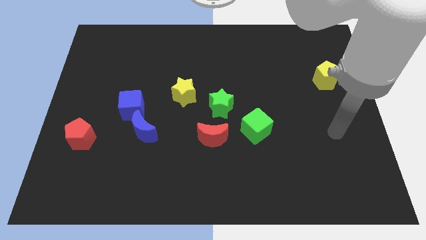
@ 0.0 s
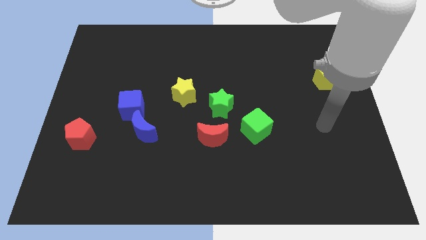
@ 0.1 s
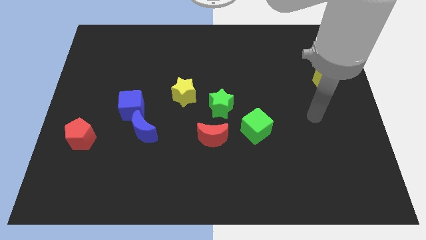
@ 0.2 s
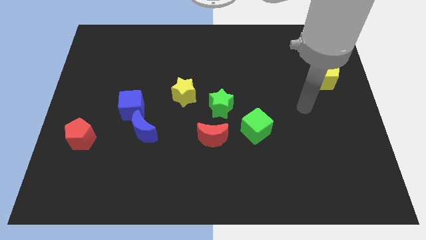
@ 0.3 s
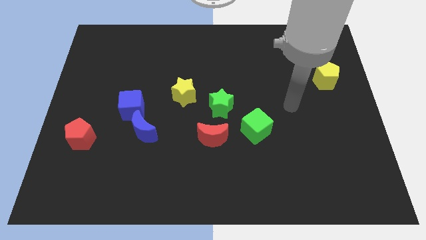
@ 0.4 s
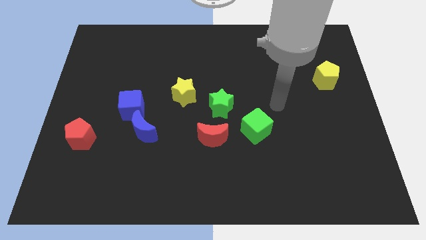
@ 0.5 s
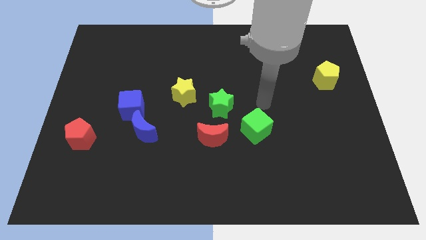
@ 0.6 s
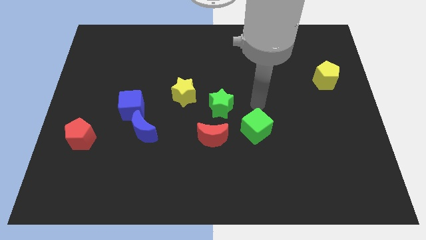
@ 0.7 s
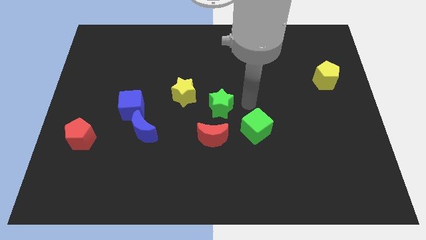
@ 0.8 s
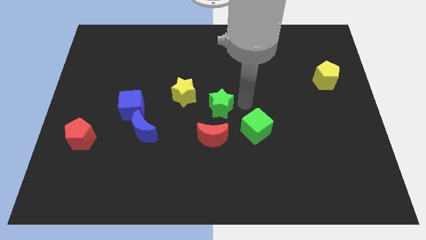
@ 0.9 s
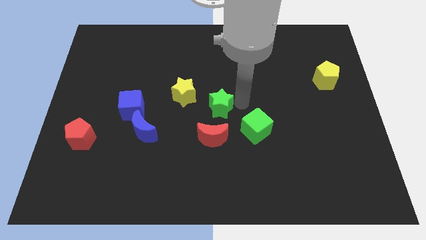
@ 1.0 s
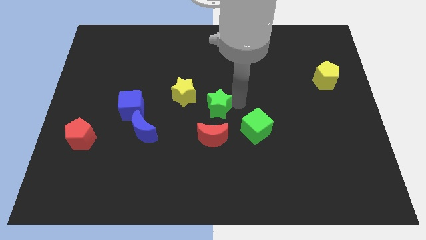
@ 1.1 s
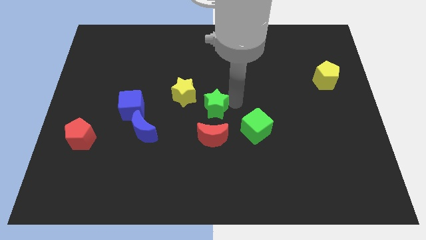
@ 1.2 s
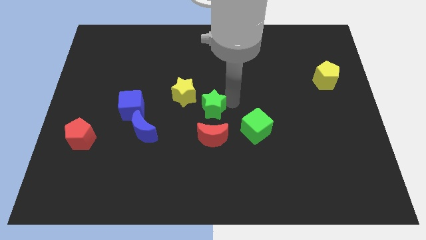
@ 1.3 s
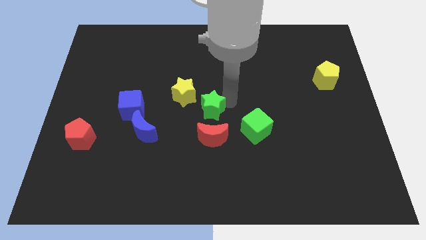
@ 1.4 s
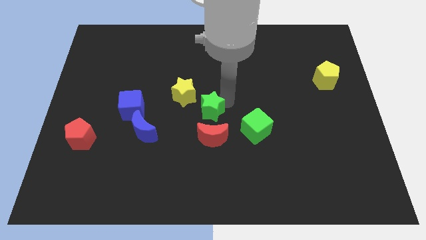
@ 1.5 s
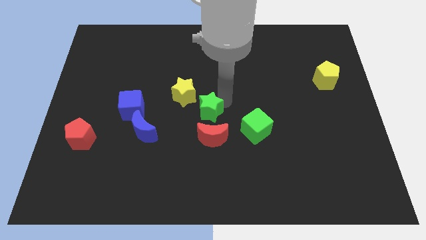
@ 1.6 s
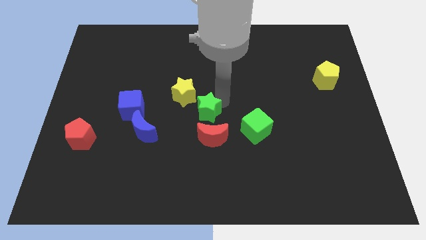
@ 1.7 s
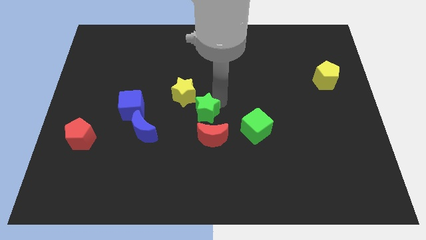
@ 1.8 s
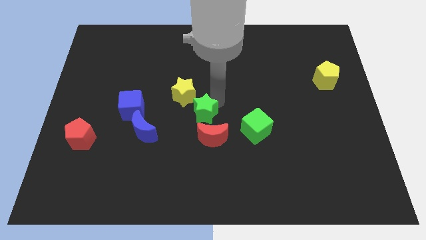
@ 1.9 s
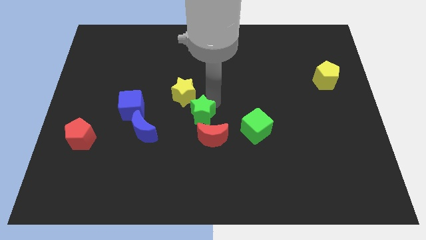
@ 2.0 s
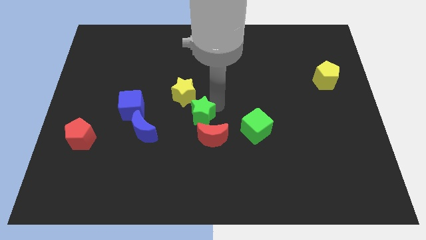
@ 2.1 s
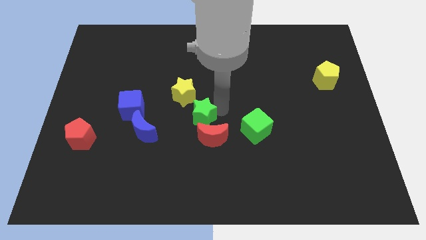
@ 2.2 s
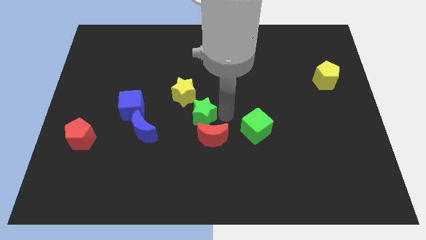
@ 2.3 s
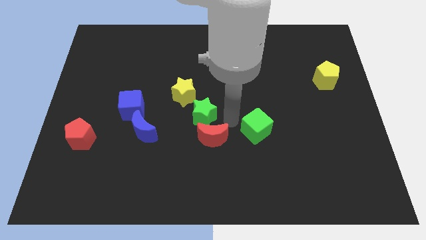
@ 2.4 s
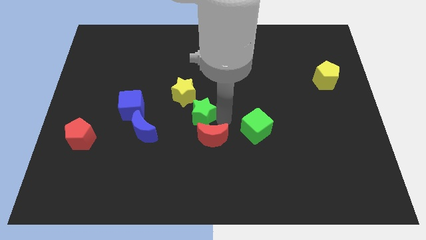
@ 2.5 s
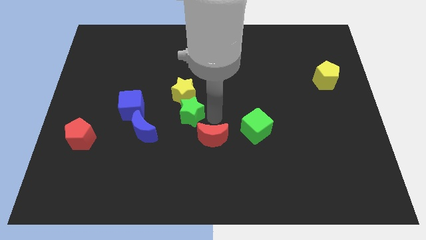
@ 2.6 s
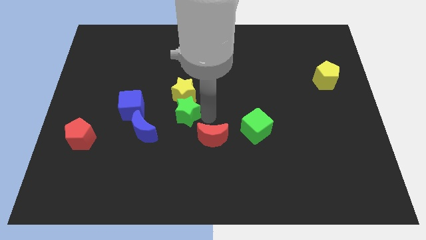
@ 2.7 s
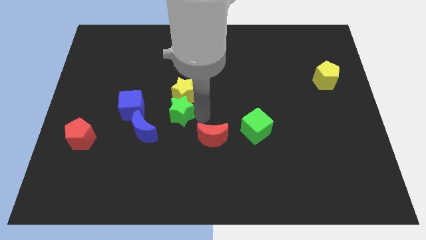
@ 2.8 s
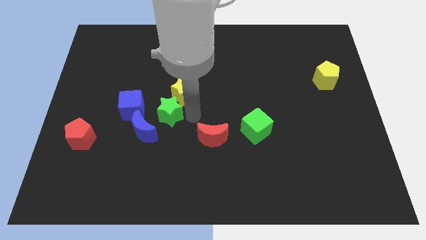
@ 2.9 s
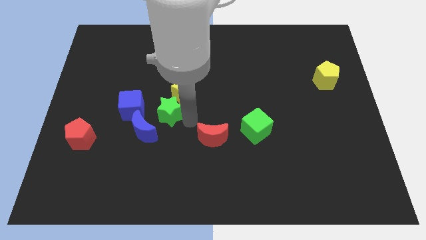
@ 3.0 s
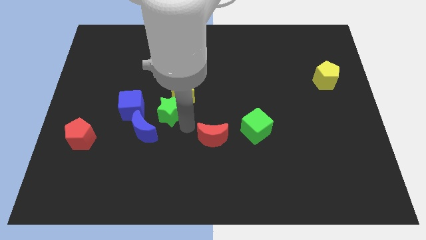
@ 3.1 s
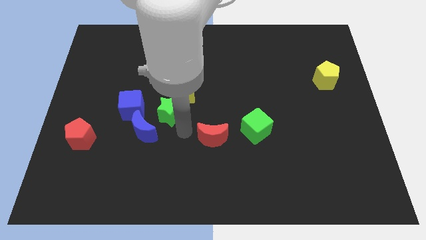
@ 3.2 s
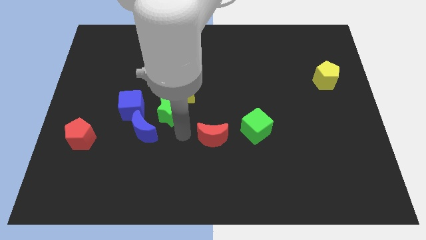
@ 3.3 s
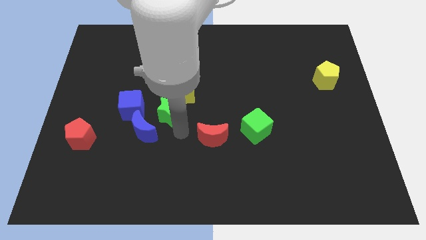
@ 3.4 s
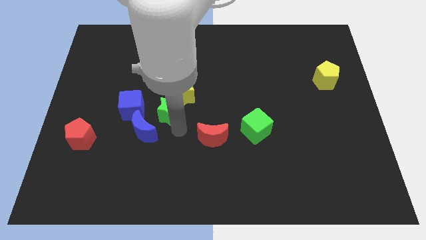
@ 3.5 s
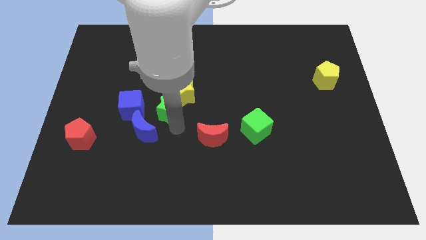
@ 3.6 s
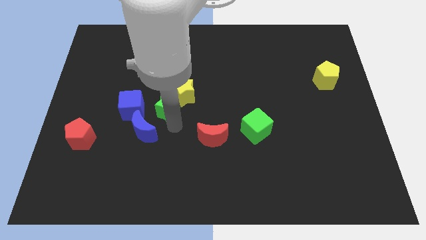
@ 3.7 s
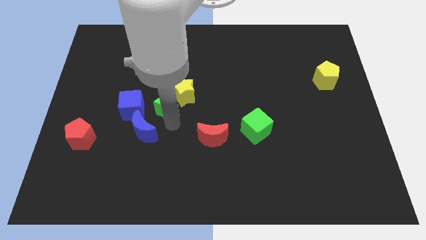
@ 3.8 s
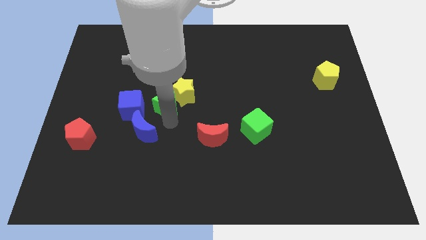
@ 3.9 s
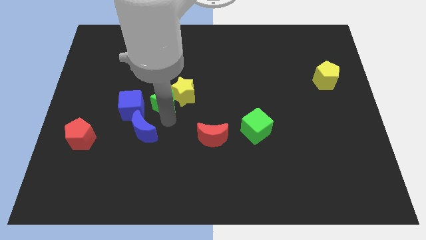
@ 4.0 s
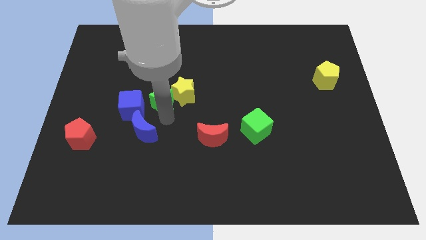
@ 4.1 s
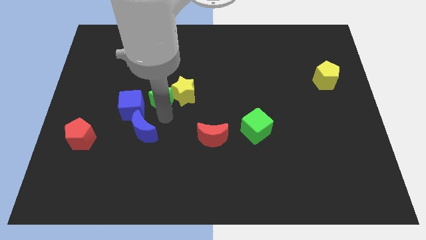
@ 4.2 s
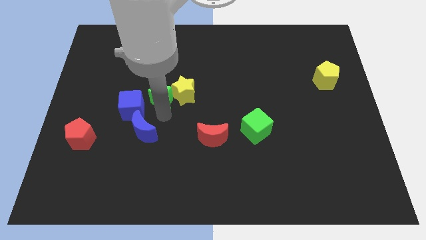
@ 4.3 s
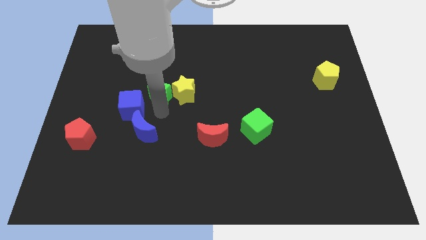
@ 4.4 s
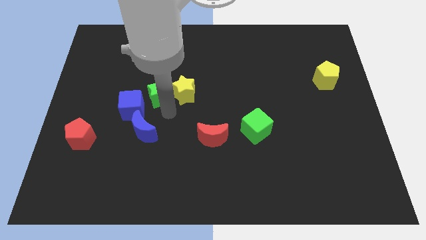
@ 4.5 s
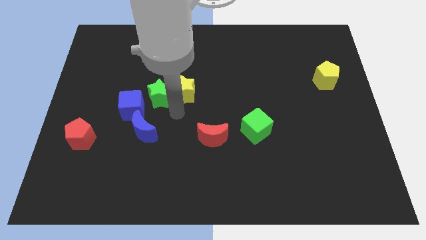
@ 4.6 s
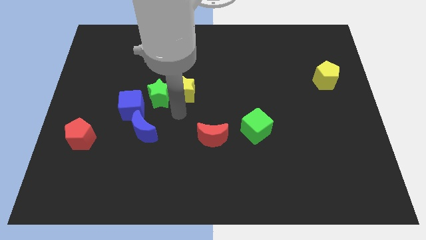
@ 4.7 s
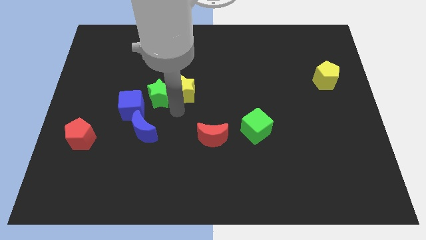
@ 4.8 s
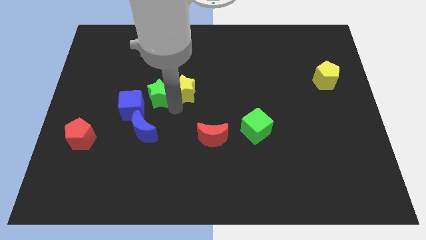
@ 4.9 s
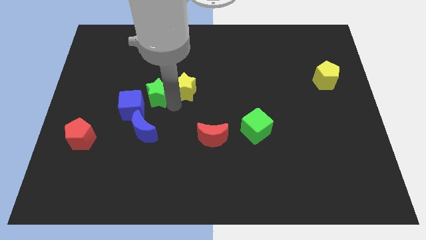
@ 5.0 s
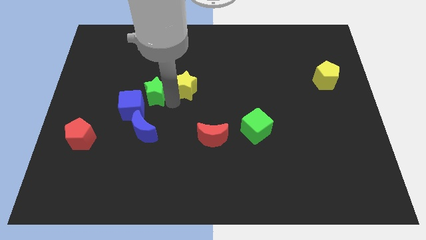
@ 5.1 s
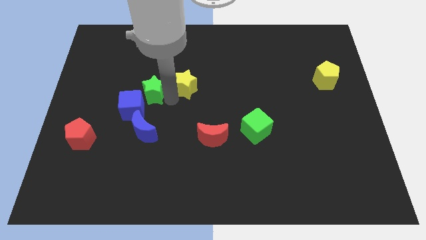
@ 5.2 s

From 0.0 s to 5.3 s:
push the green star to the top of the blue cube

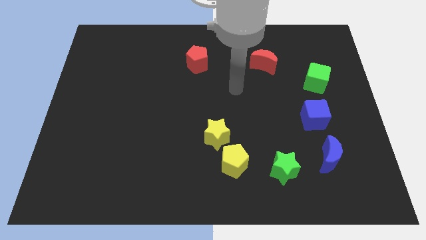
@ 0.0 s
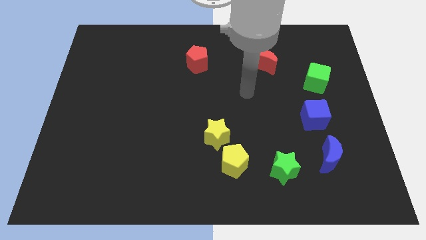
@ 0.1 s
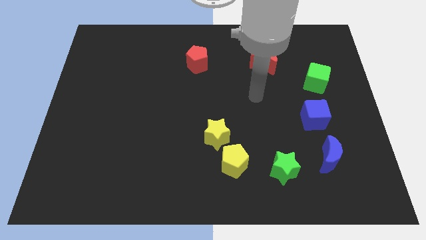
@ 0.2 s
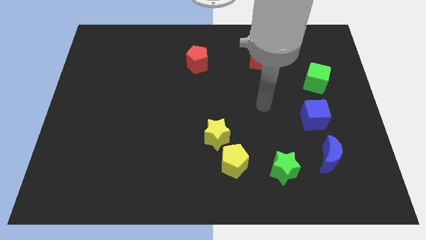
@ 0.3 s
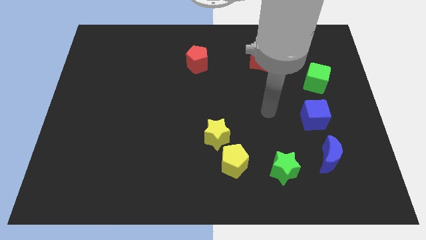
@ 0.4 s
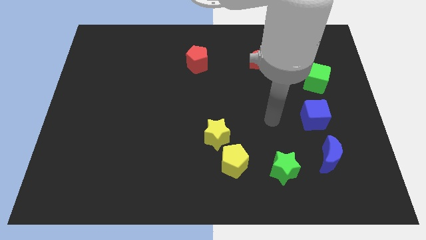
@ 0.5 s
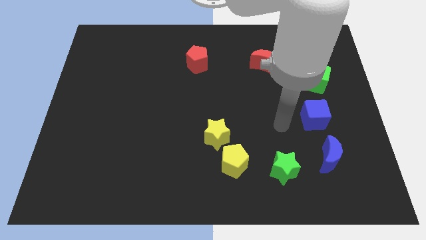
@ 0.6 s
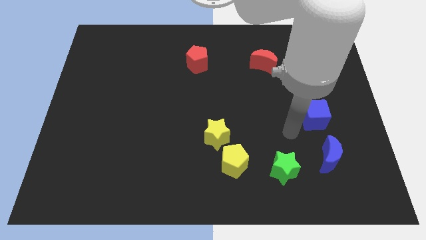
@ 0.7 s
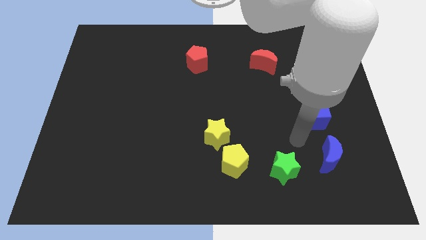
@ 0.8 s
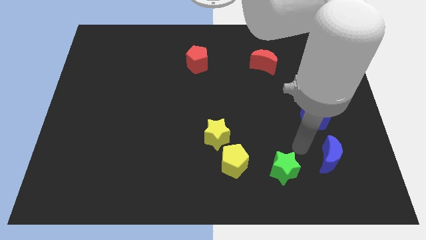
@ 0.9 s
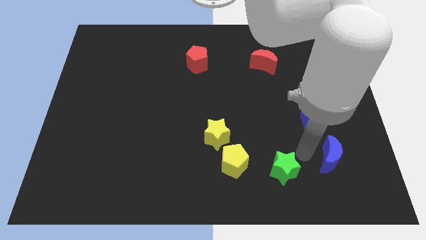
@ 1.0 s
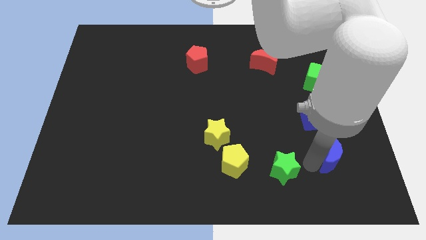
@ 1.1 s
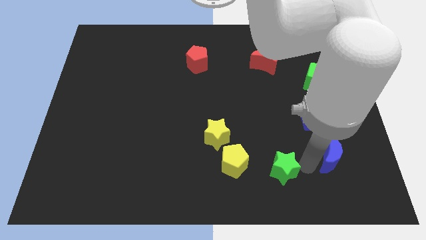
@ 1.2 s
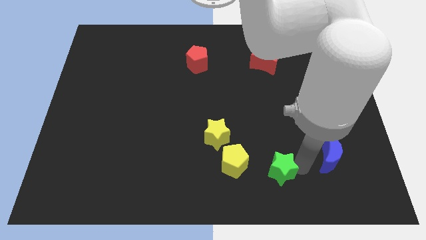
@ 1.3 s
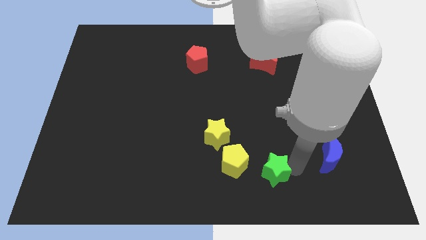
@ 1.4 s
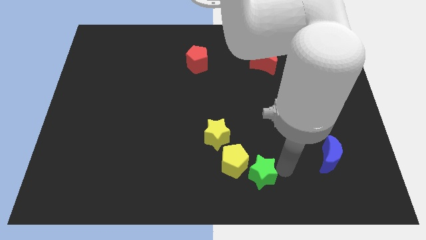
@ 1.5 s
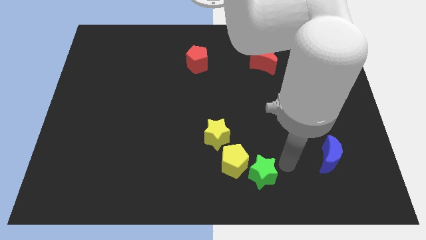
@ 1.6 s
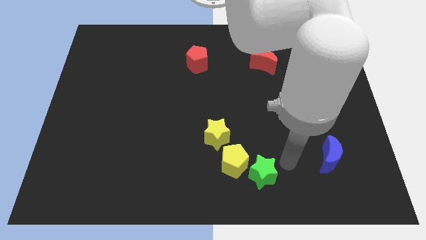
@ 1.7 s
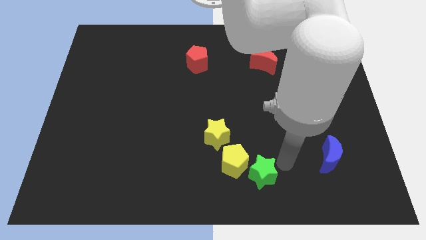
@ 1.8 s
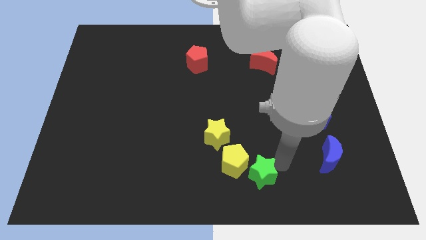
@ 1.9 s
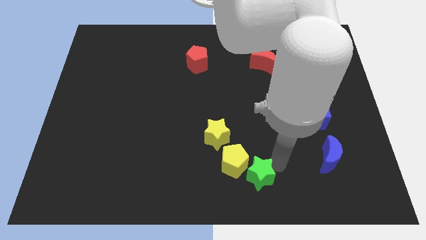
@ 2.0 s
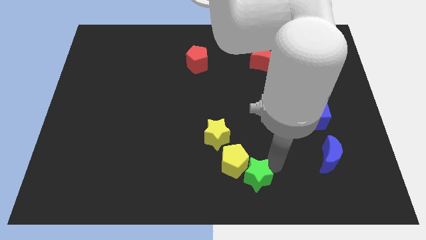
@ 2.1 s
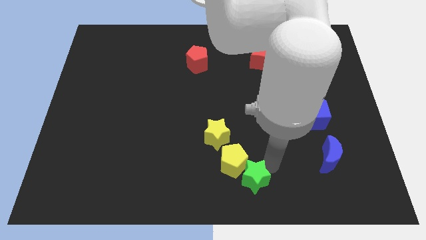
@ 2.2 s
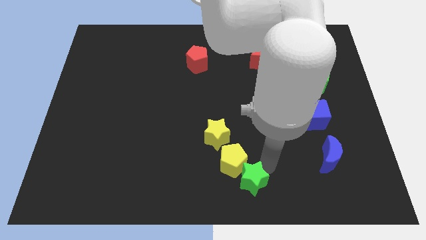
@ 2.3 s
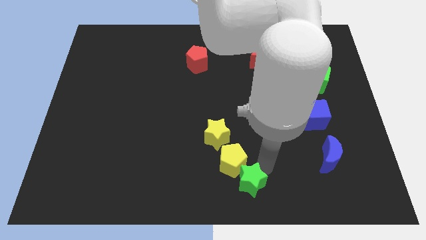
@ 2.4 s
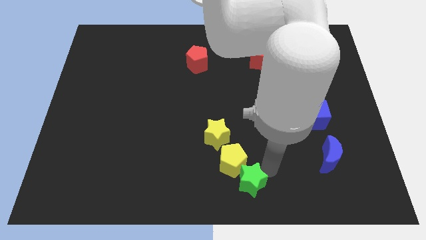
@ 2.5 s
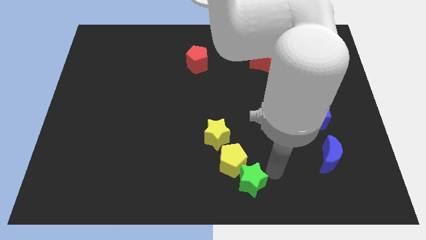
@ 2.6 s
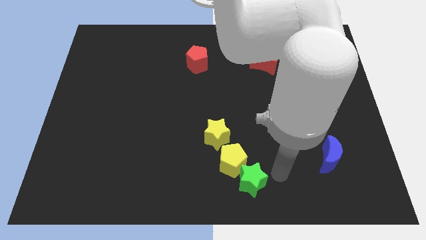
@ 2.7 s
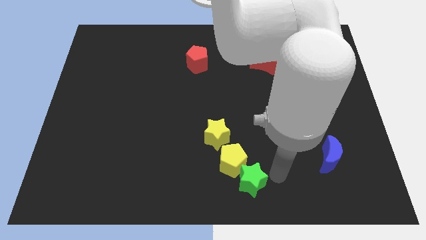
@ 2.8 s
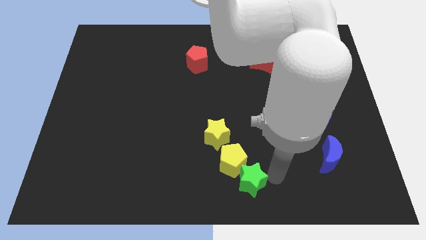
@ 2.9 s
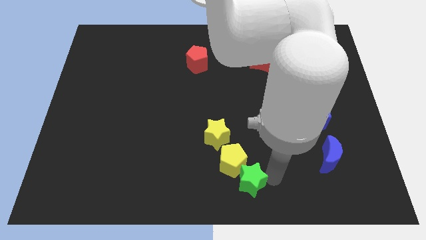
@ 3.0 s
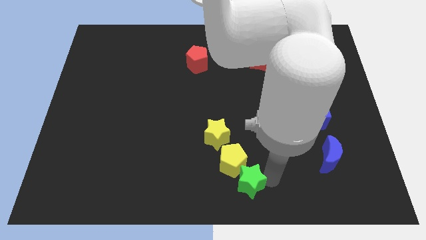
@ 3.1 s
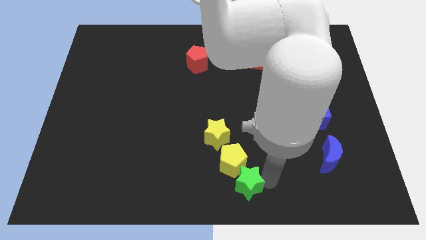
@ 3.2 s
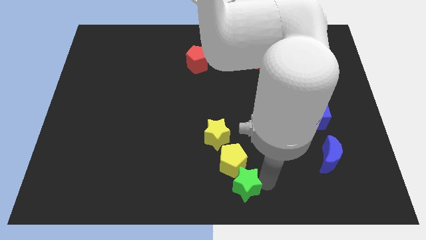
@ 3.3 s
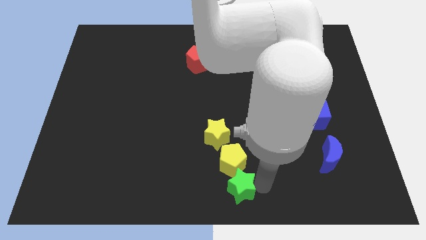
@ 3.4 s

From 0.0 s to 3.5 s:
slide the green star to the bottom side of the yellow star
